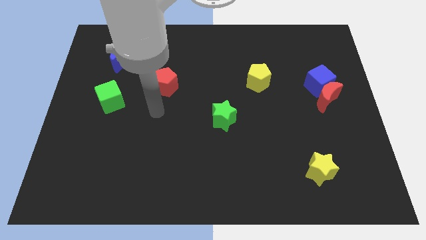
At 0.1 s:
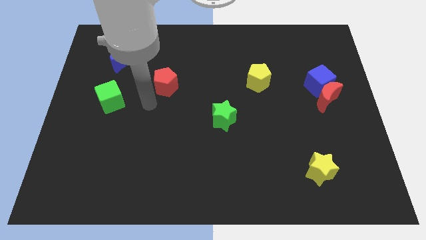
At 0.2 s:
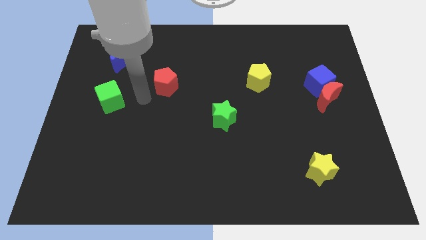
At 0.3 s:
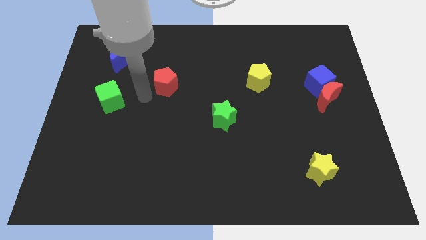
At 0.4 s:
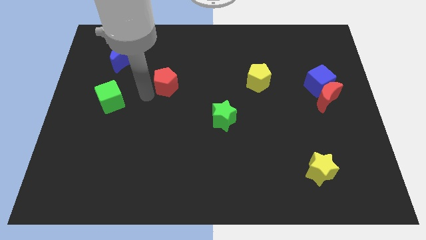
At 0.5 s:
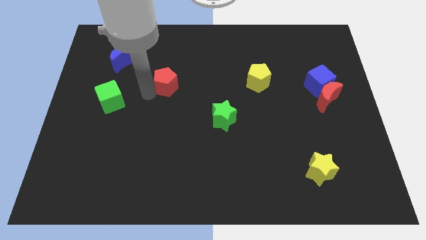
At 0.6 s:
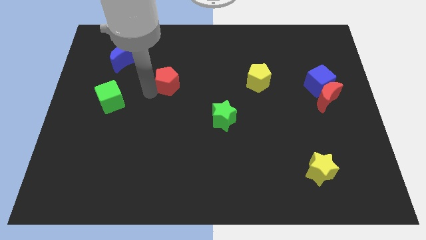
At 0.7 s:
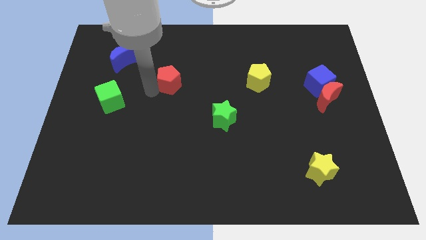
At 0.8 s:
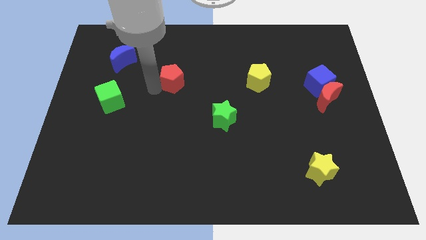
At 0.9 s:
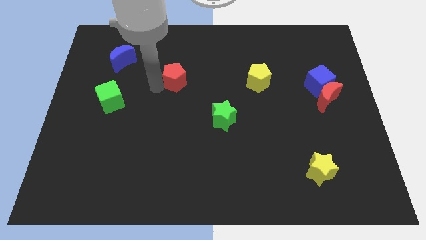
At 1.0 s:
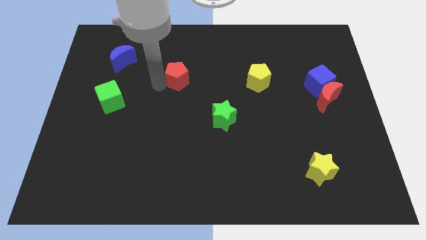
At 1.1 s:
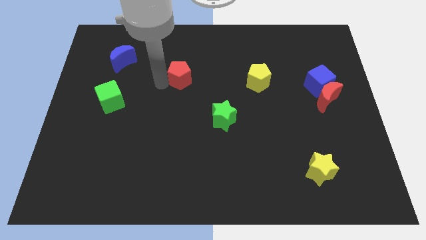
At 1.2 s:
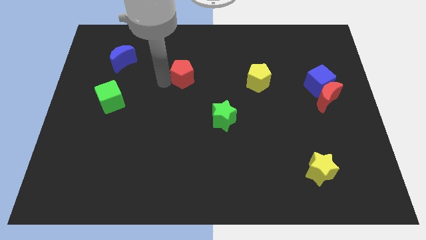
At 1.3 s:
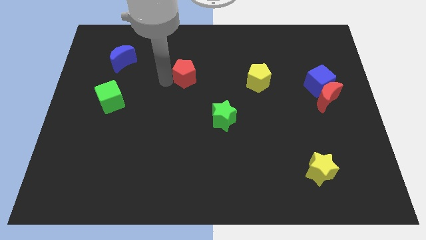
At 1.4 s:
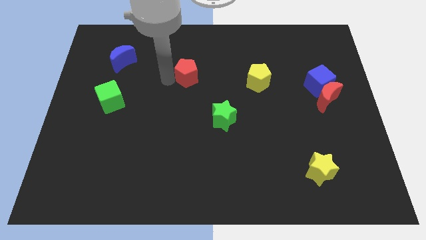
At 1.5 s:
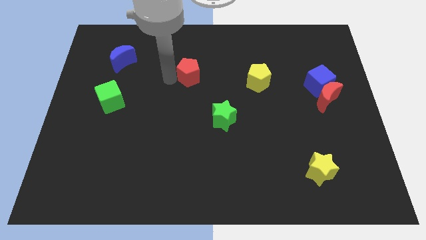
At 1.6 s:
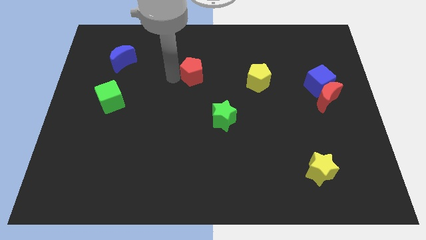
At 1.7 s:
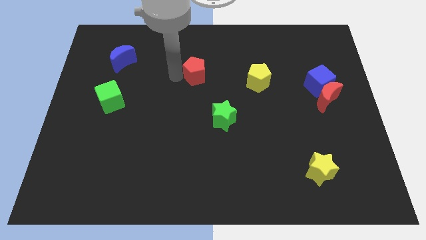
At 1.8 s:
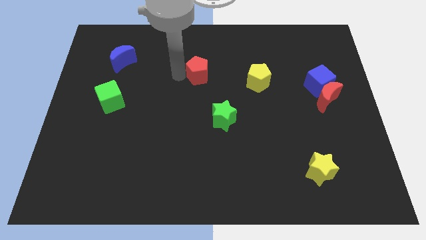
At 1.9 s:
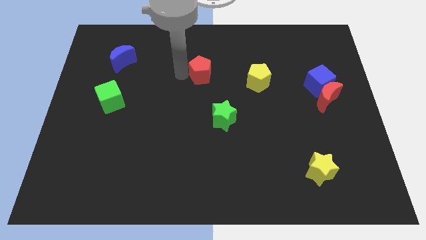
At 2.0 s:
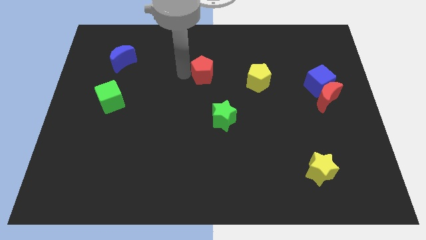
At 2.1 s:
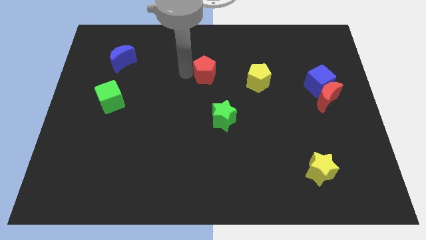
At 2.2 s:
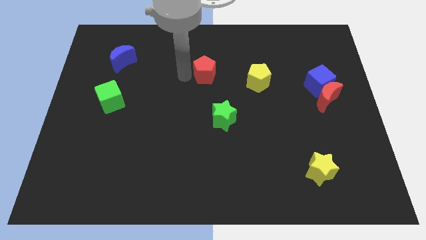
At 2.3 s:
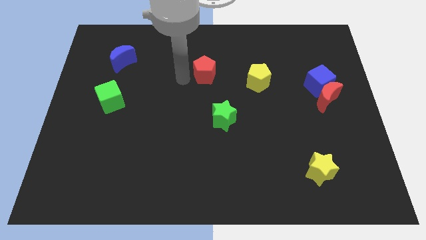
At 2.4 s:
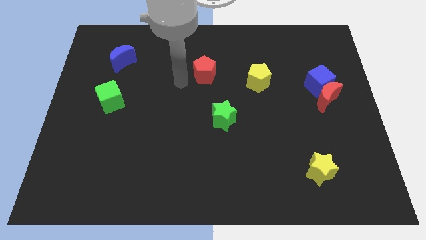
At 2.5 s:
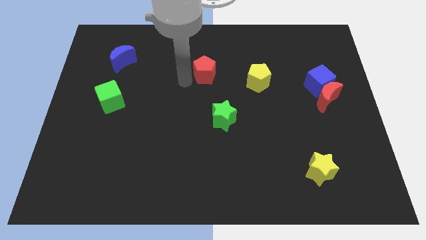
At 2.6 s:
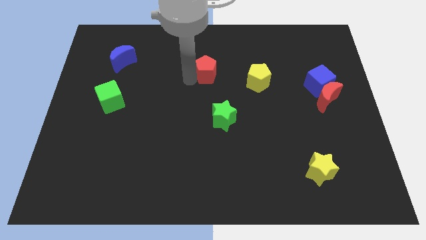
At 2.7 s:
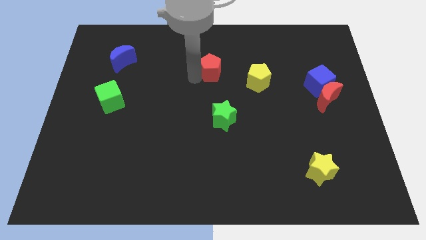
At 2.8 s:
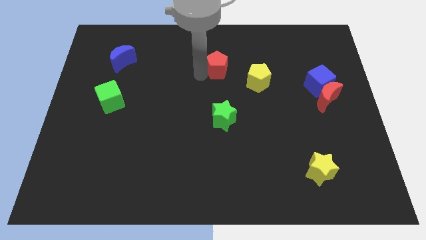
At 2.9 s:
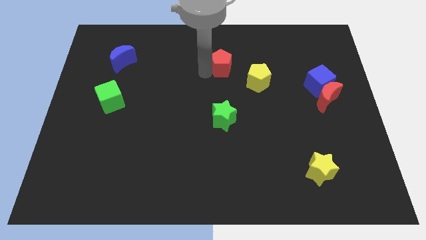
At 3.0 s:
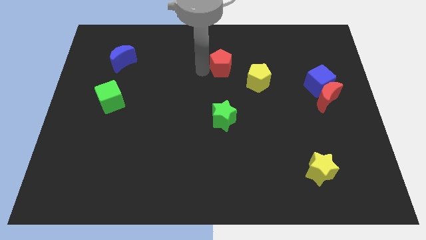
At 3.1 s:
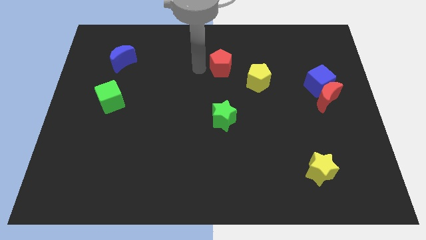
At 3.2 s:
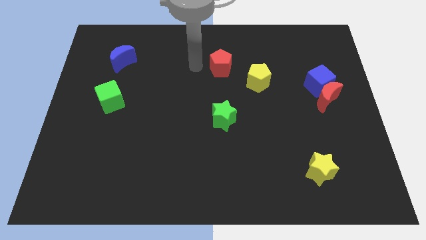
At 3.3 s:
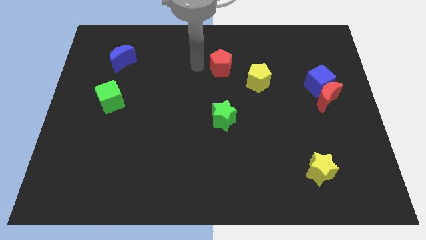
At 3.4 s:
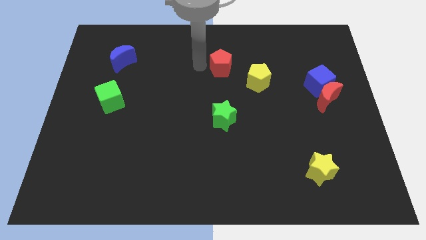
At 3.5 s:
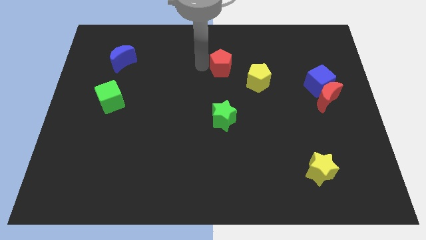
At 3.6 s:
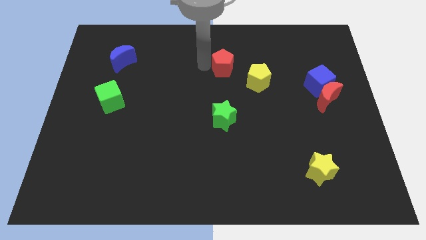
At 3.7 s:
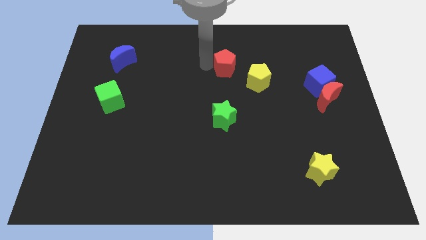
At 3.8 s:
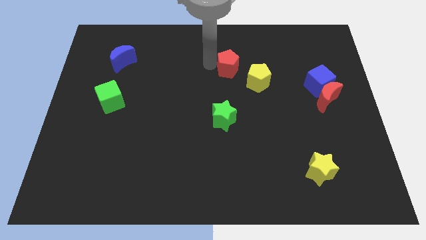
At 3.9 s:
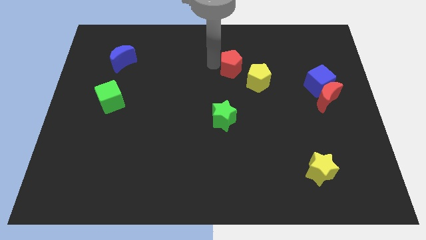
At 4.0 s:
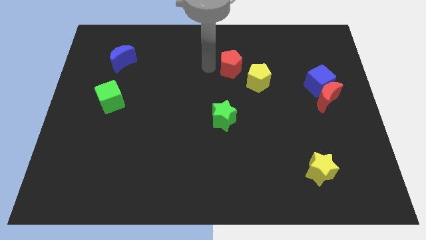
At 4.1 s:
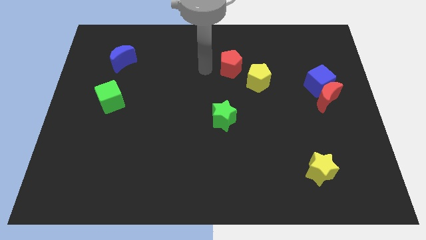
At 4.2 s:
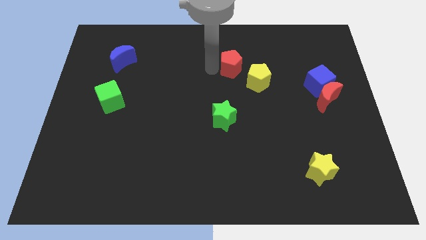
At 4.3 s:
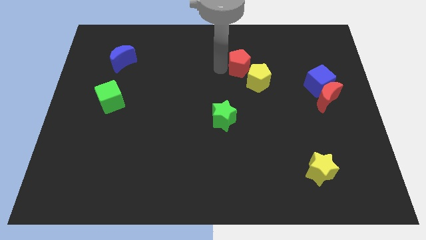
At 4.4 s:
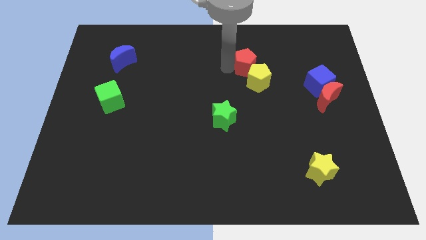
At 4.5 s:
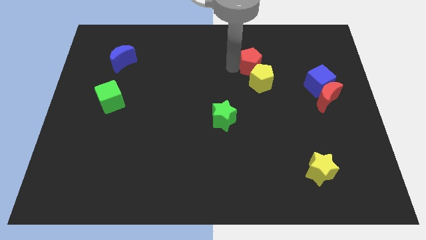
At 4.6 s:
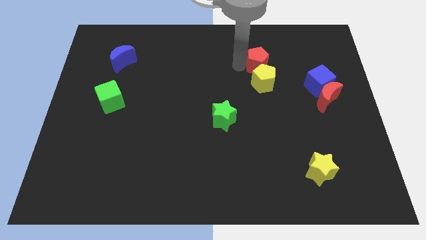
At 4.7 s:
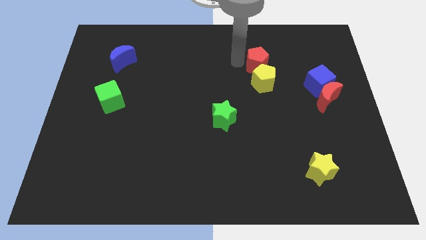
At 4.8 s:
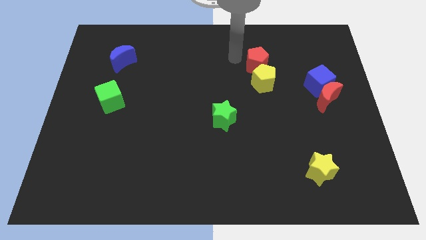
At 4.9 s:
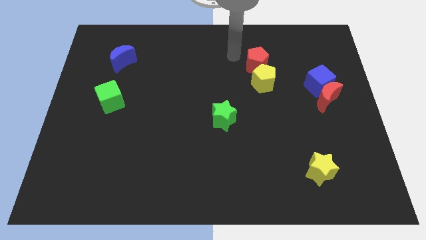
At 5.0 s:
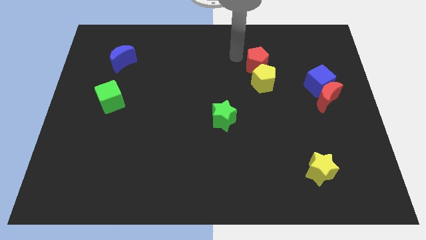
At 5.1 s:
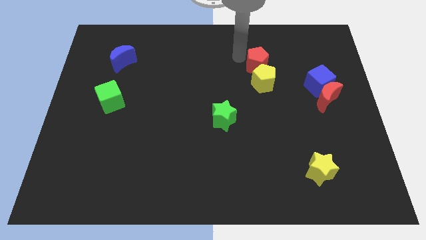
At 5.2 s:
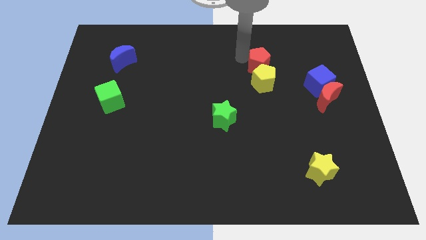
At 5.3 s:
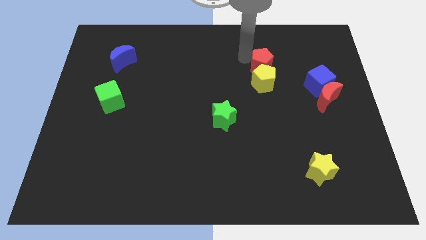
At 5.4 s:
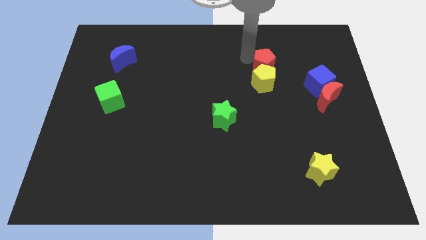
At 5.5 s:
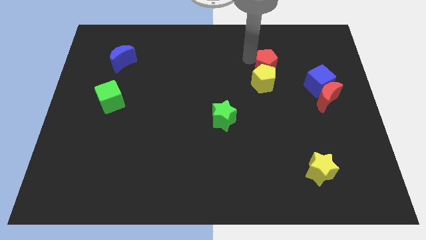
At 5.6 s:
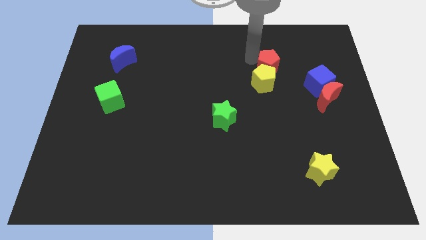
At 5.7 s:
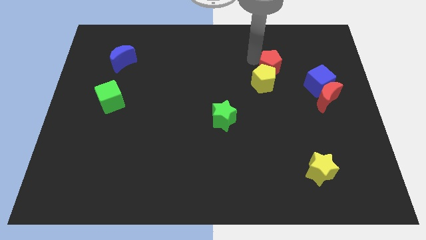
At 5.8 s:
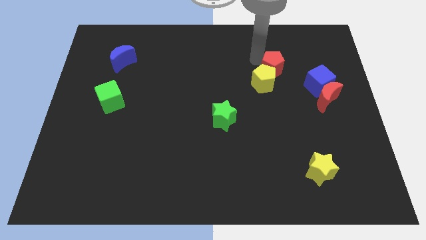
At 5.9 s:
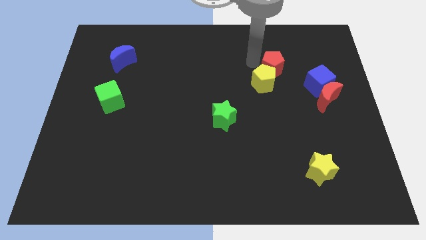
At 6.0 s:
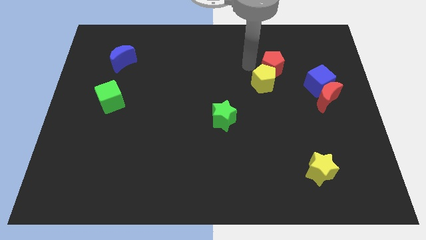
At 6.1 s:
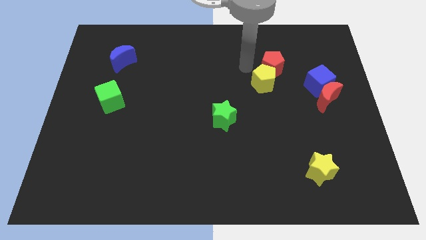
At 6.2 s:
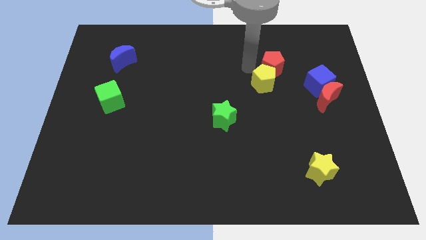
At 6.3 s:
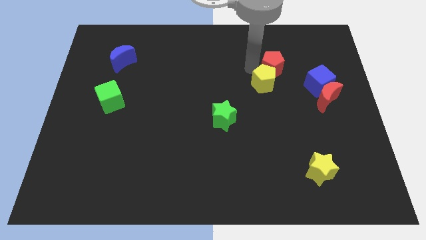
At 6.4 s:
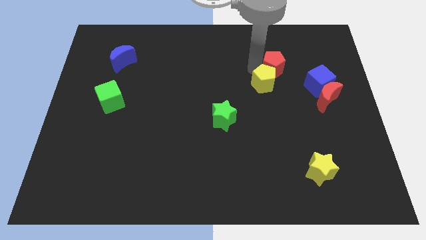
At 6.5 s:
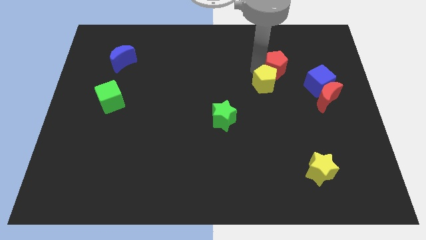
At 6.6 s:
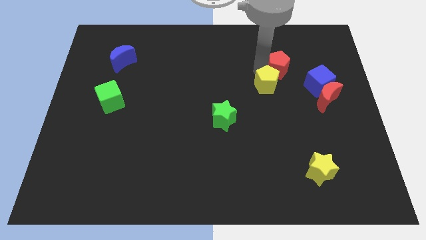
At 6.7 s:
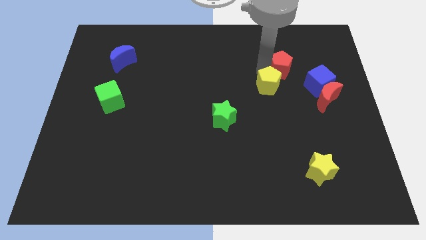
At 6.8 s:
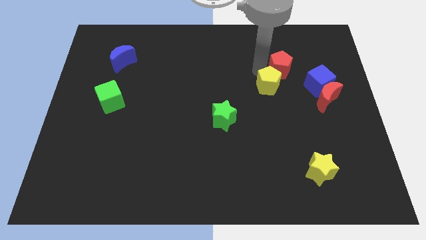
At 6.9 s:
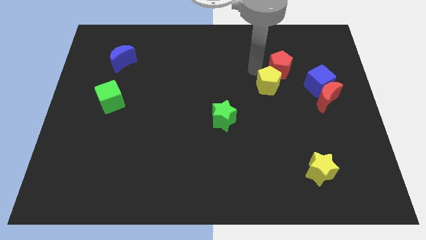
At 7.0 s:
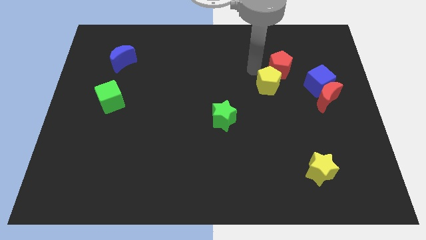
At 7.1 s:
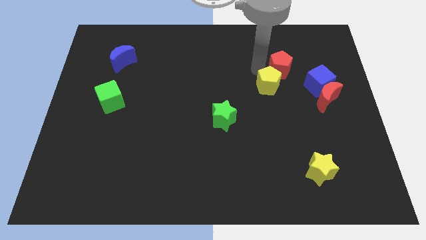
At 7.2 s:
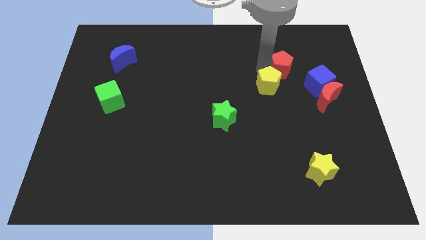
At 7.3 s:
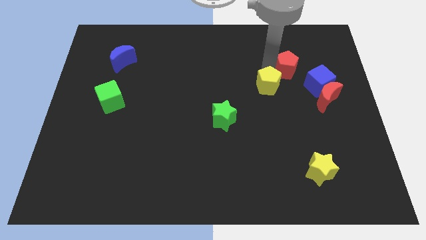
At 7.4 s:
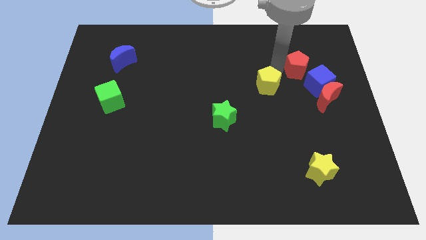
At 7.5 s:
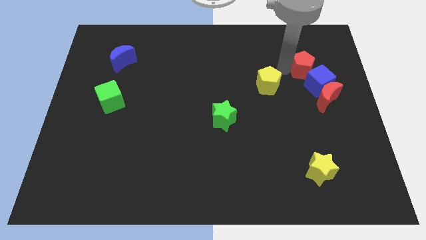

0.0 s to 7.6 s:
move the red pentagon to the top of the red moon
